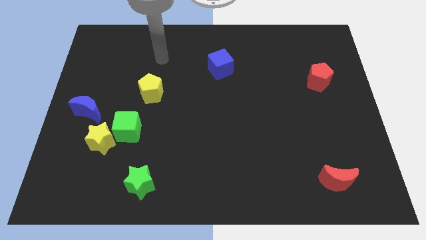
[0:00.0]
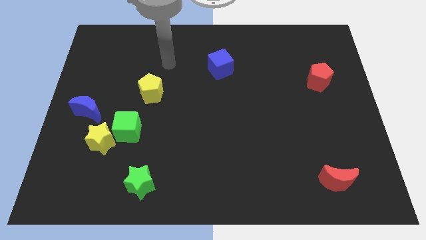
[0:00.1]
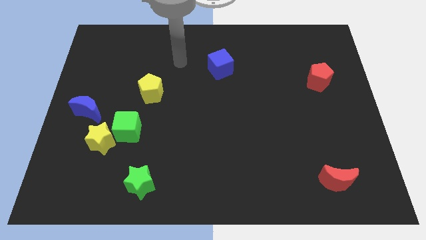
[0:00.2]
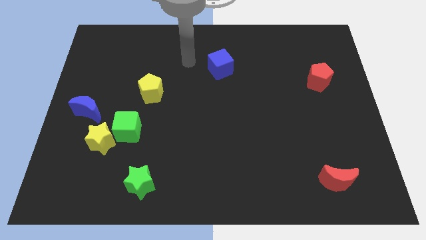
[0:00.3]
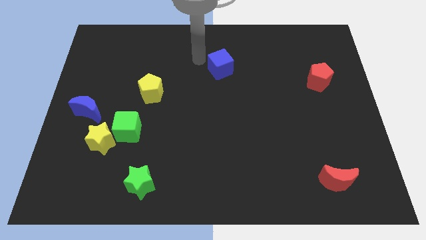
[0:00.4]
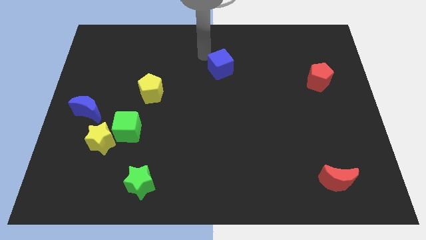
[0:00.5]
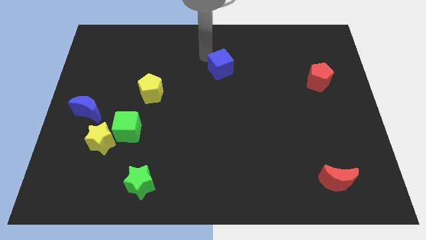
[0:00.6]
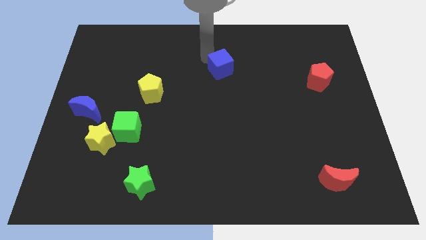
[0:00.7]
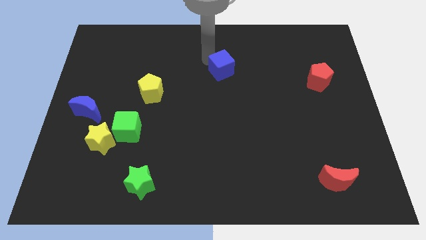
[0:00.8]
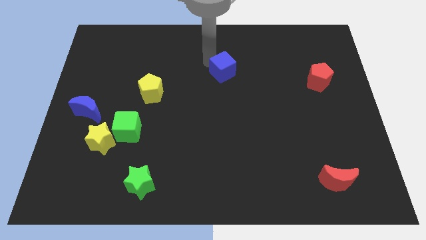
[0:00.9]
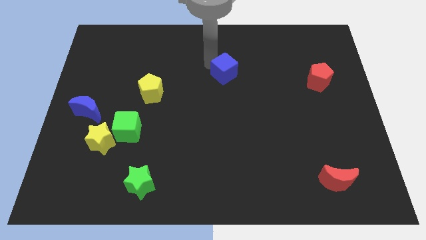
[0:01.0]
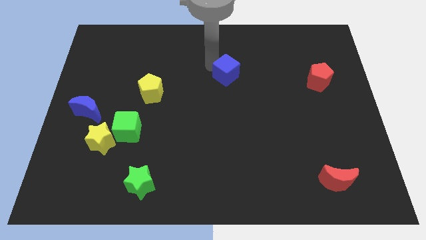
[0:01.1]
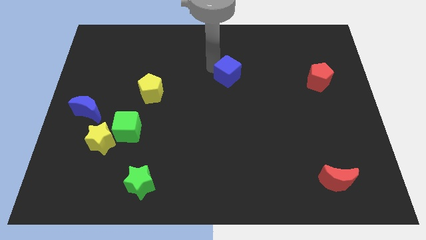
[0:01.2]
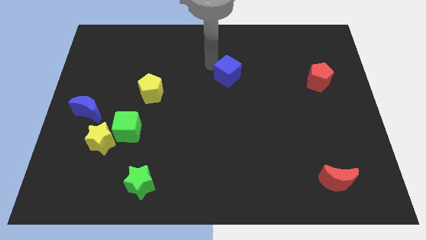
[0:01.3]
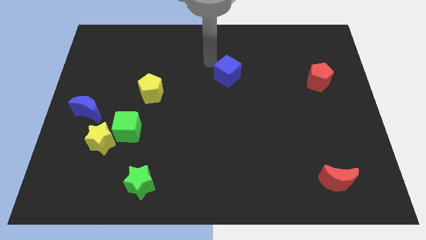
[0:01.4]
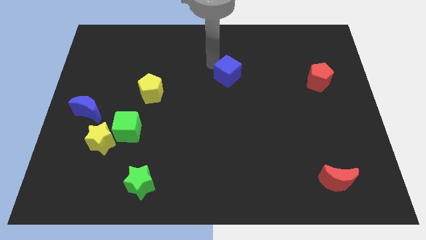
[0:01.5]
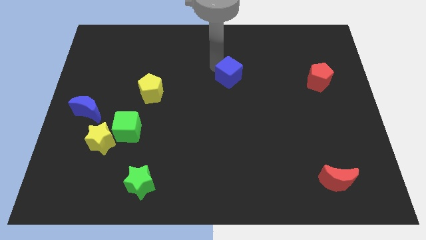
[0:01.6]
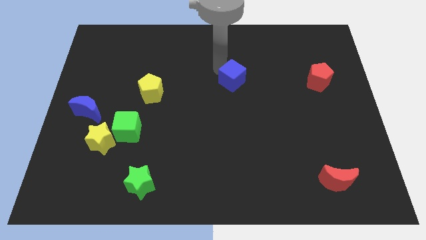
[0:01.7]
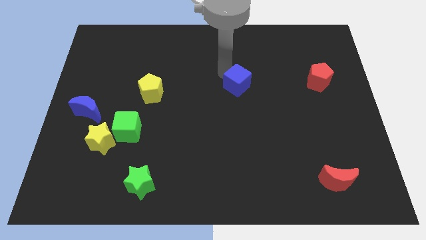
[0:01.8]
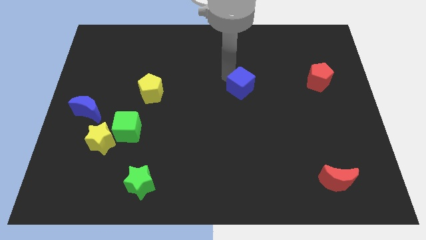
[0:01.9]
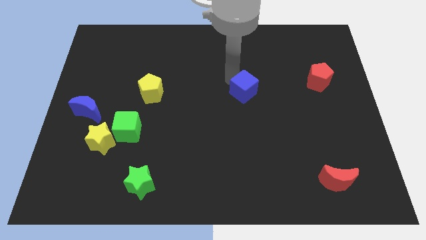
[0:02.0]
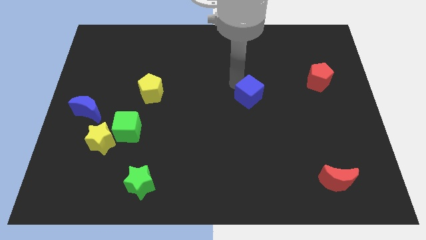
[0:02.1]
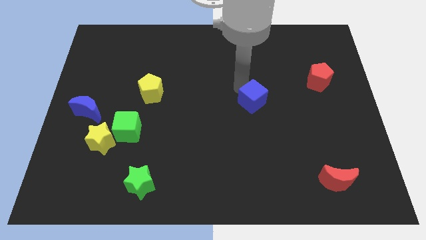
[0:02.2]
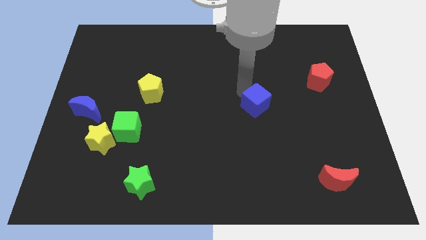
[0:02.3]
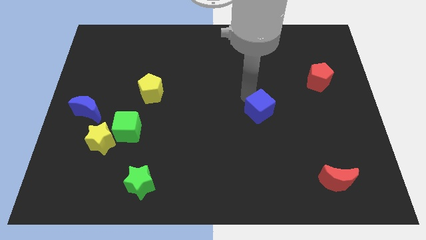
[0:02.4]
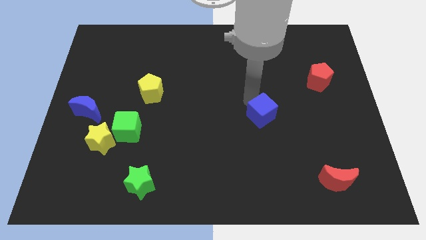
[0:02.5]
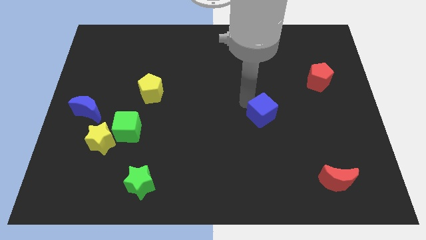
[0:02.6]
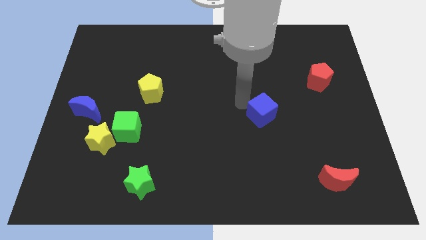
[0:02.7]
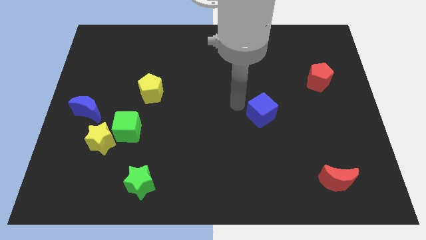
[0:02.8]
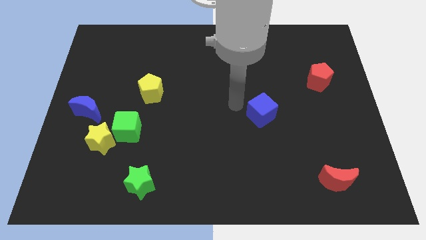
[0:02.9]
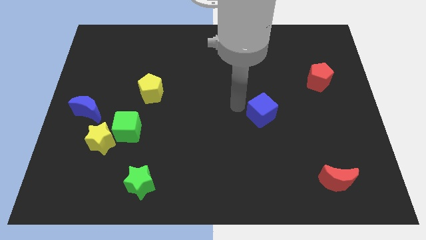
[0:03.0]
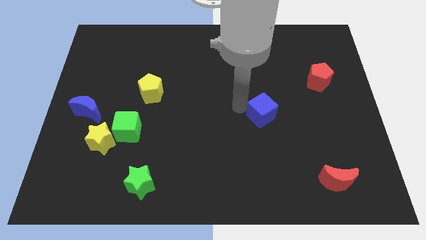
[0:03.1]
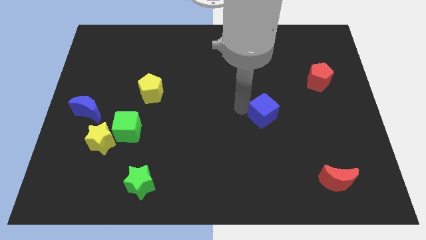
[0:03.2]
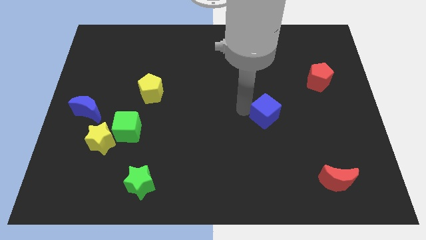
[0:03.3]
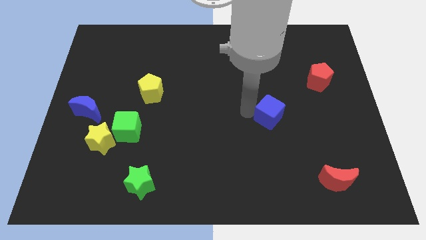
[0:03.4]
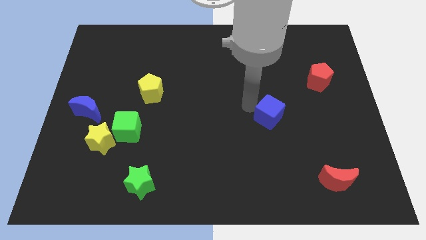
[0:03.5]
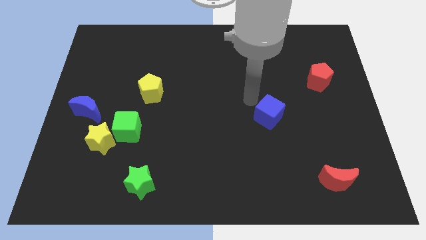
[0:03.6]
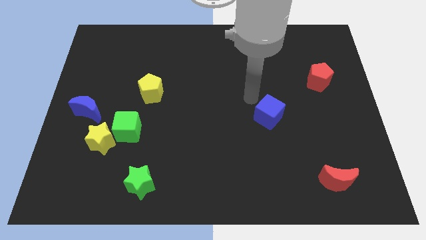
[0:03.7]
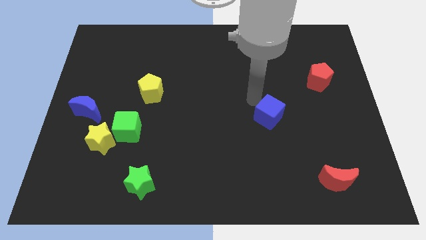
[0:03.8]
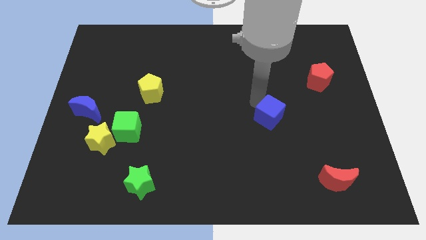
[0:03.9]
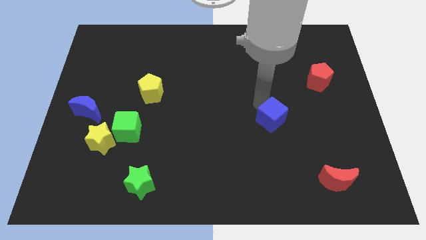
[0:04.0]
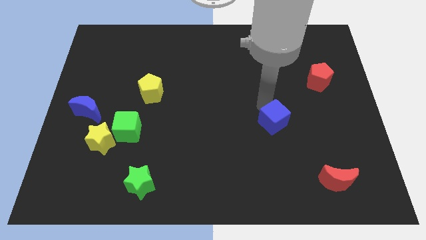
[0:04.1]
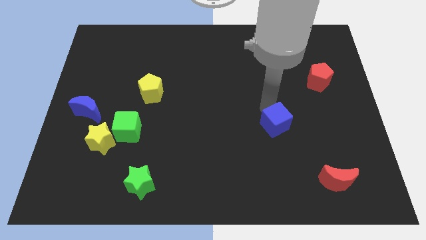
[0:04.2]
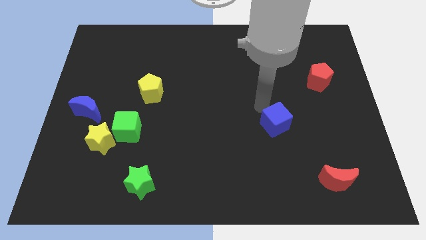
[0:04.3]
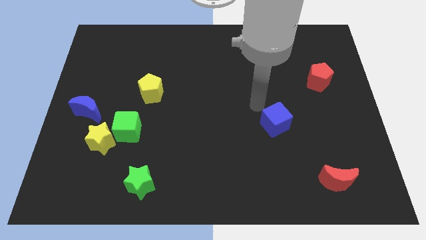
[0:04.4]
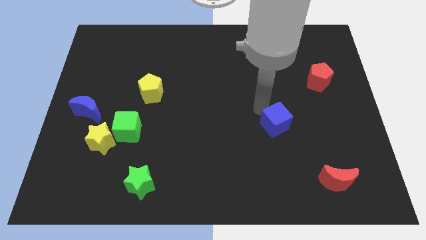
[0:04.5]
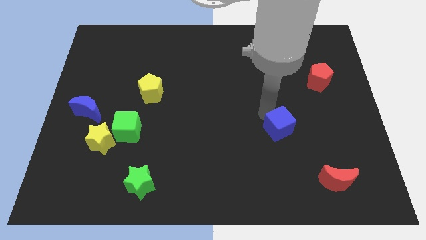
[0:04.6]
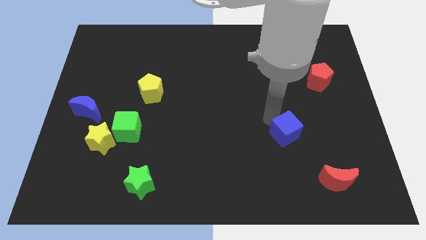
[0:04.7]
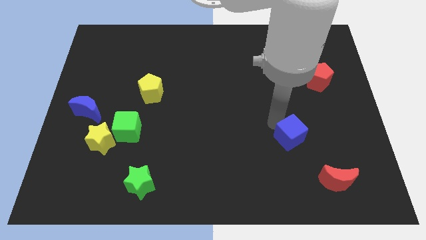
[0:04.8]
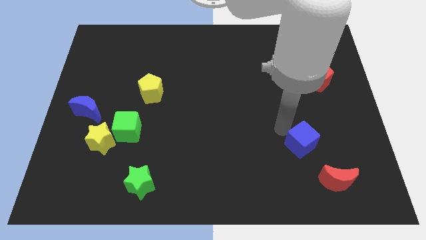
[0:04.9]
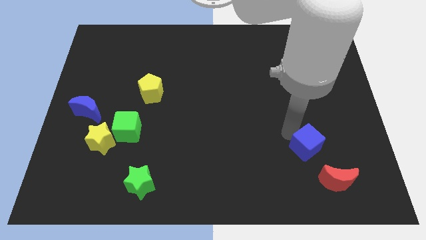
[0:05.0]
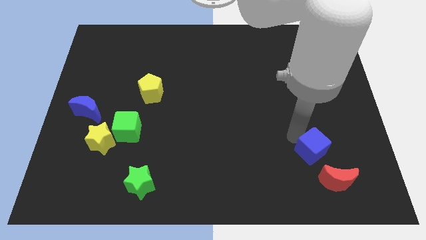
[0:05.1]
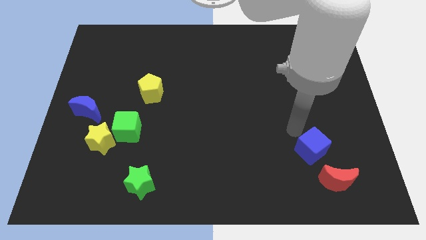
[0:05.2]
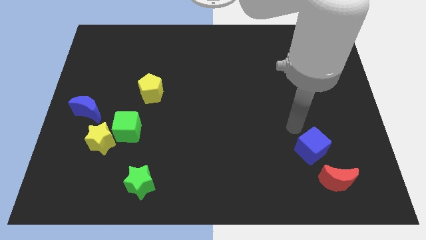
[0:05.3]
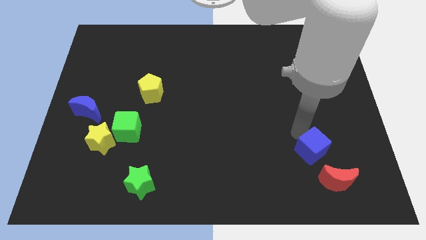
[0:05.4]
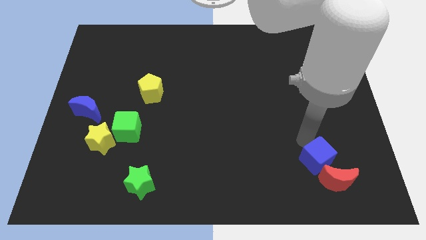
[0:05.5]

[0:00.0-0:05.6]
push the blue cube to the red moon

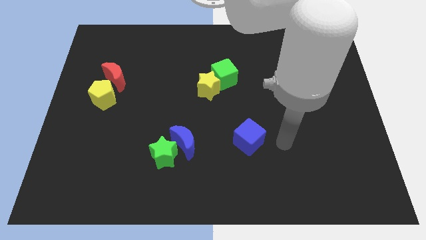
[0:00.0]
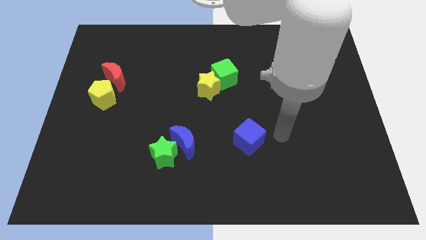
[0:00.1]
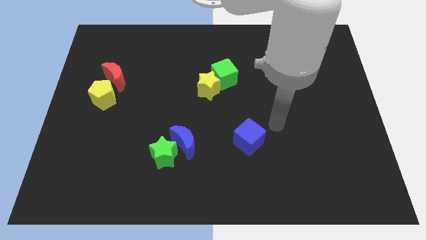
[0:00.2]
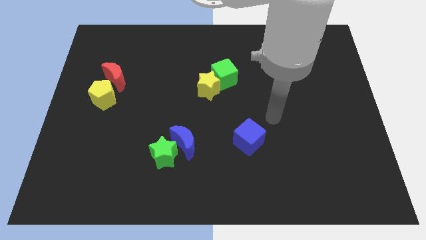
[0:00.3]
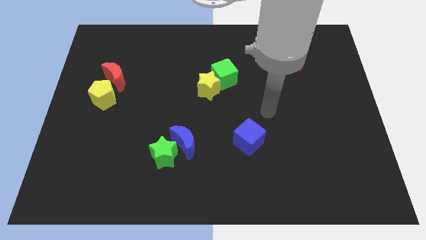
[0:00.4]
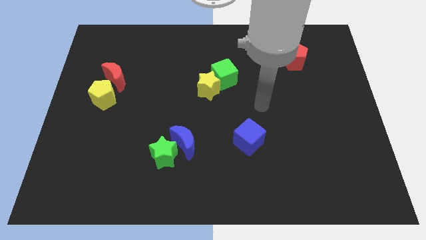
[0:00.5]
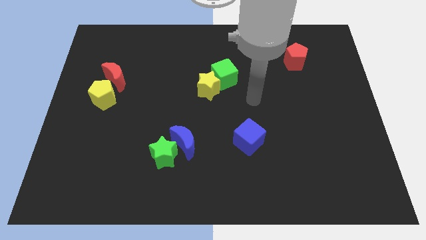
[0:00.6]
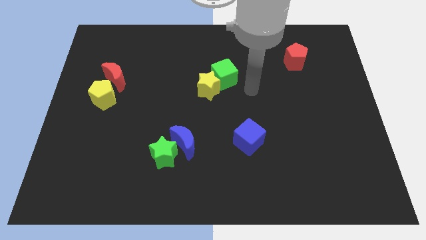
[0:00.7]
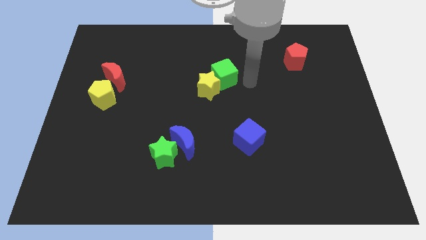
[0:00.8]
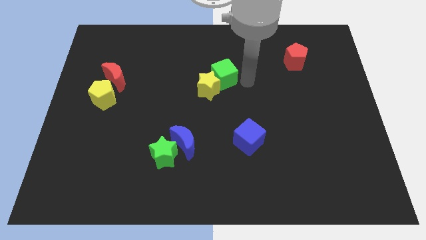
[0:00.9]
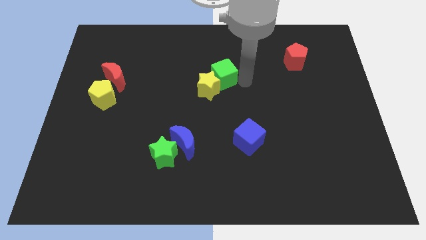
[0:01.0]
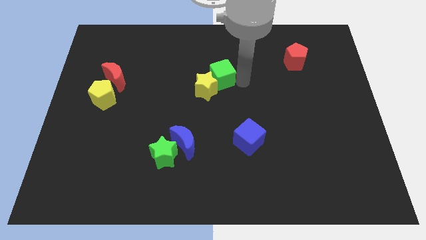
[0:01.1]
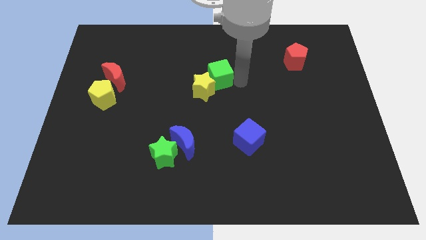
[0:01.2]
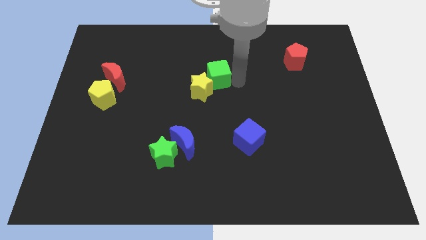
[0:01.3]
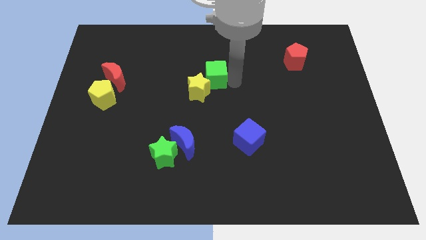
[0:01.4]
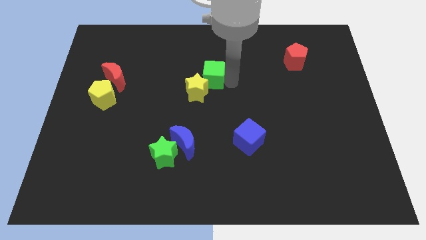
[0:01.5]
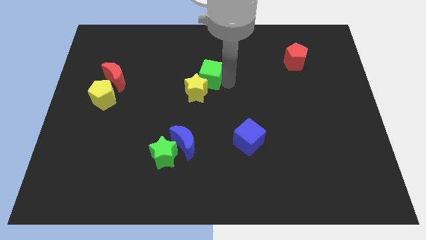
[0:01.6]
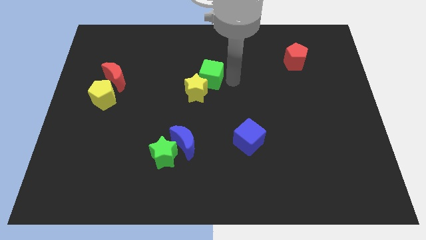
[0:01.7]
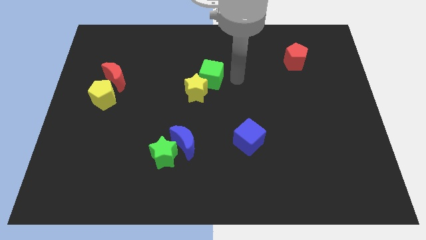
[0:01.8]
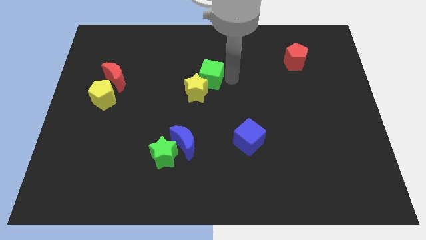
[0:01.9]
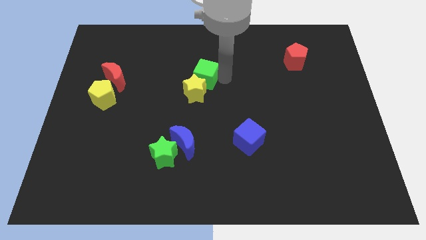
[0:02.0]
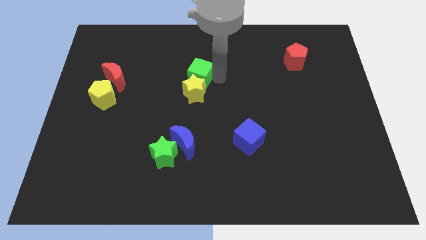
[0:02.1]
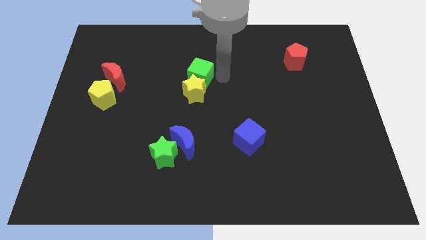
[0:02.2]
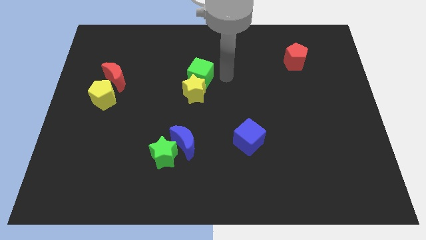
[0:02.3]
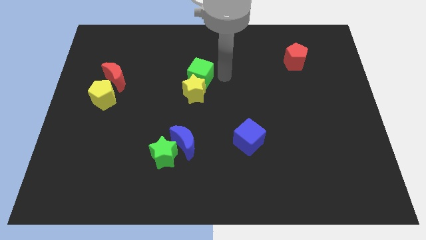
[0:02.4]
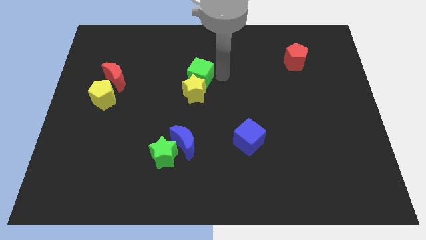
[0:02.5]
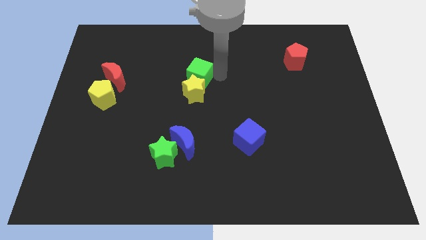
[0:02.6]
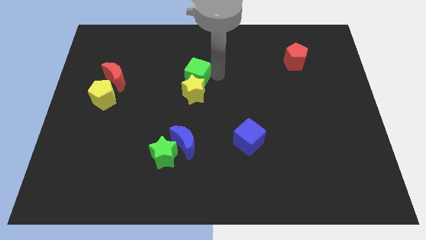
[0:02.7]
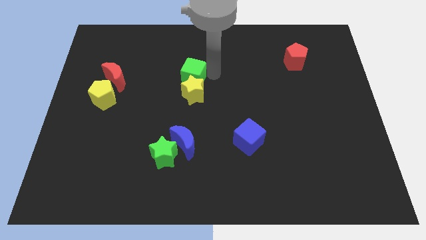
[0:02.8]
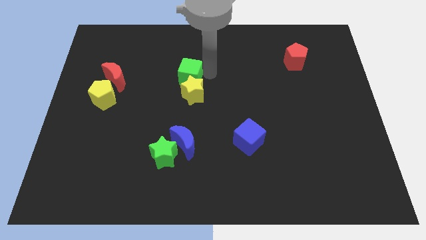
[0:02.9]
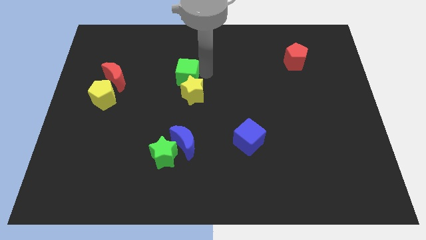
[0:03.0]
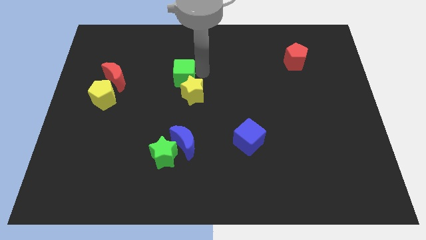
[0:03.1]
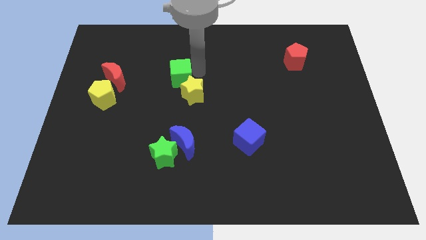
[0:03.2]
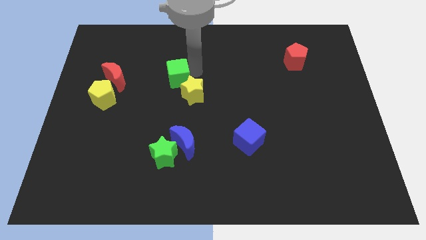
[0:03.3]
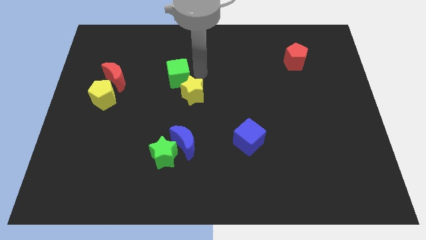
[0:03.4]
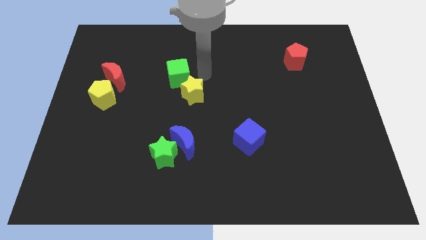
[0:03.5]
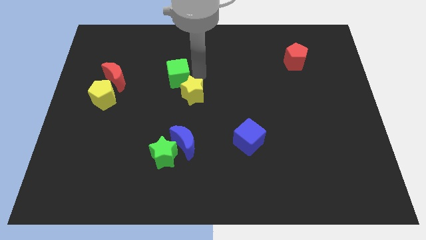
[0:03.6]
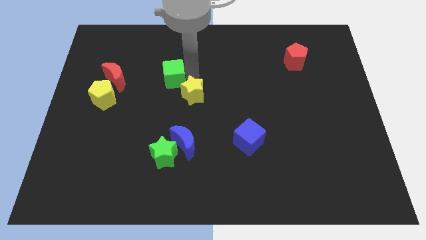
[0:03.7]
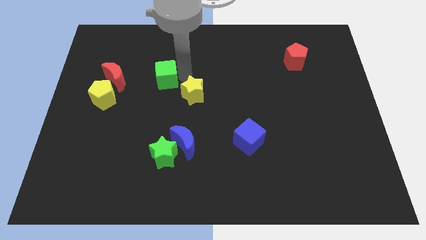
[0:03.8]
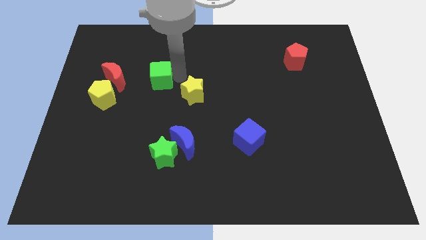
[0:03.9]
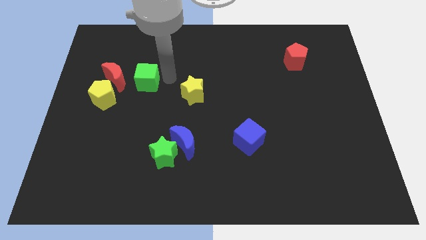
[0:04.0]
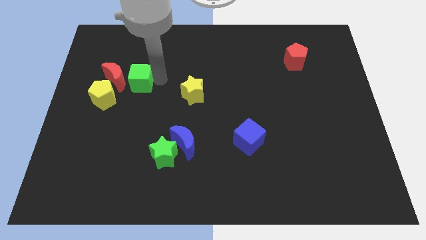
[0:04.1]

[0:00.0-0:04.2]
put the green cube to the red moon
